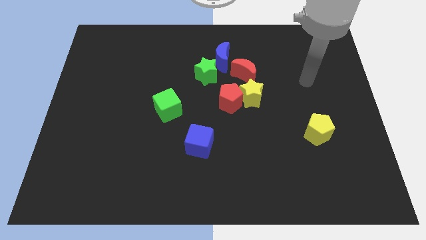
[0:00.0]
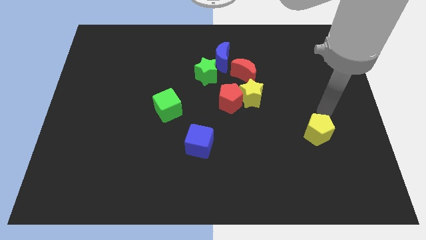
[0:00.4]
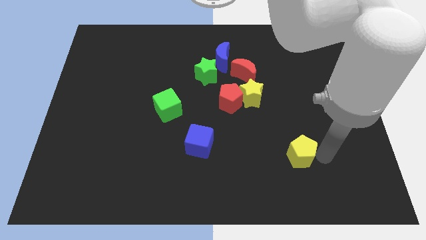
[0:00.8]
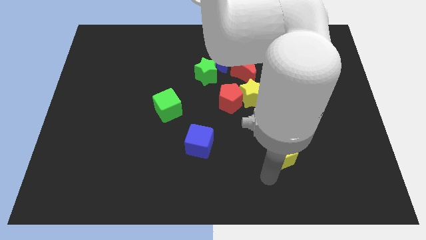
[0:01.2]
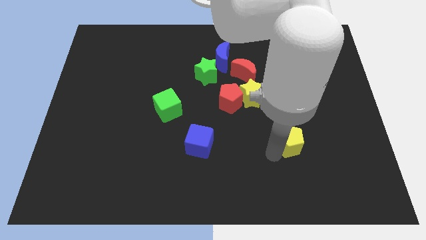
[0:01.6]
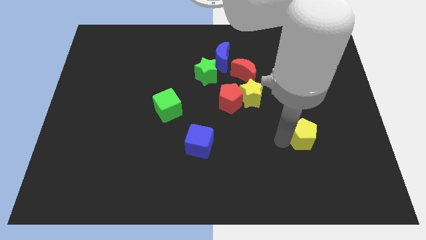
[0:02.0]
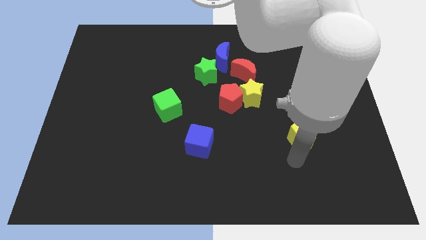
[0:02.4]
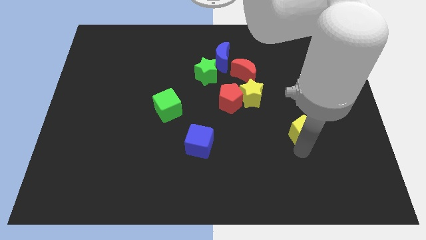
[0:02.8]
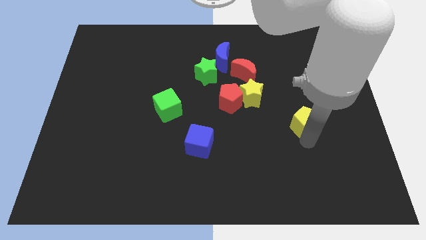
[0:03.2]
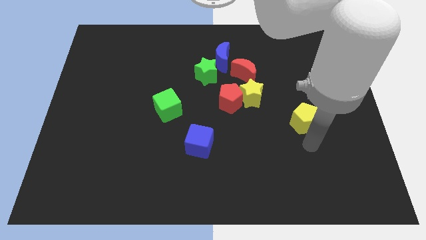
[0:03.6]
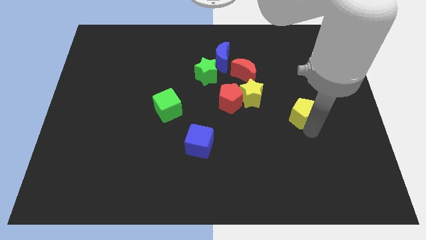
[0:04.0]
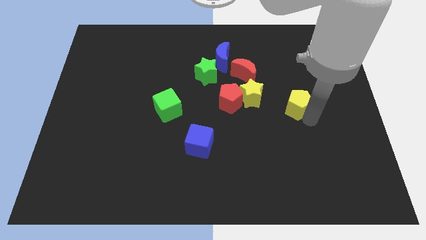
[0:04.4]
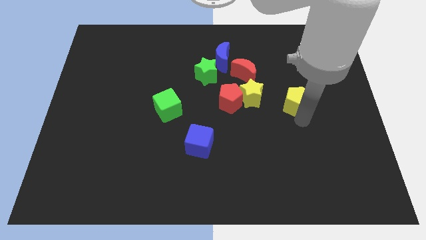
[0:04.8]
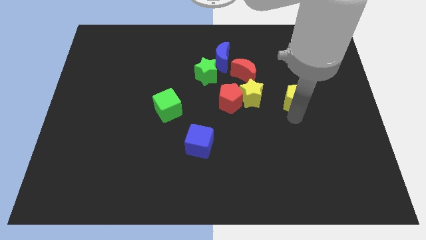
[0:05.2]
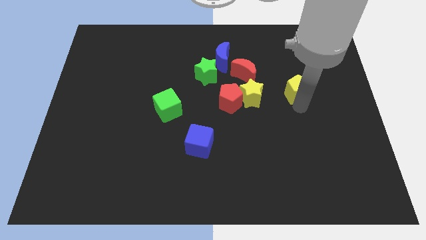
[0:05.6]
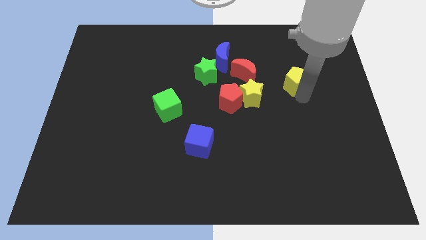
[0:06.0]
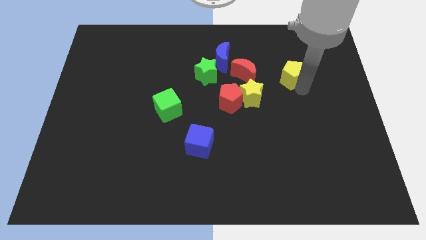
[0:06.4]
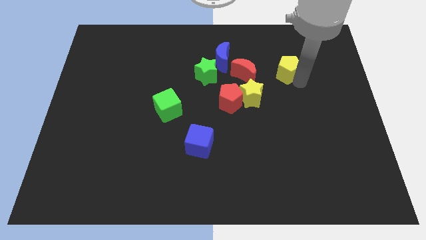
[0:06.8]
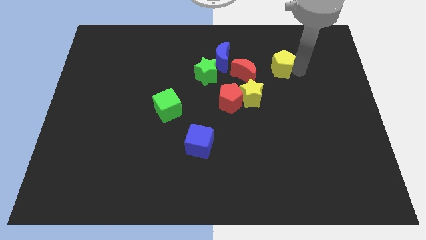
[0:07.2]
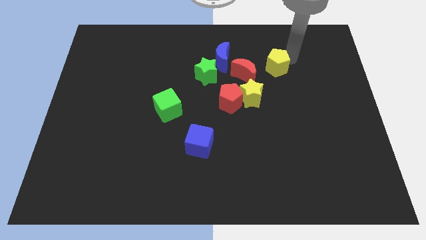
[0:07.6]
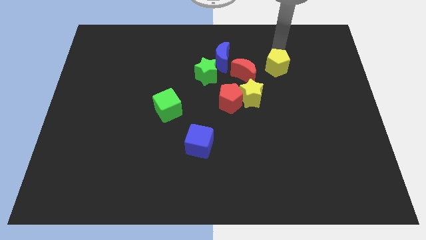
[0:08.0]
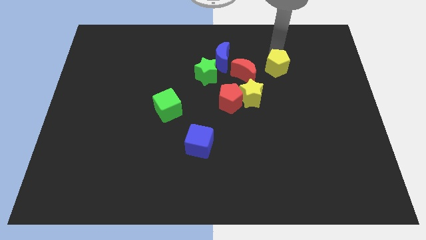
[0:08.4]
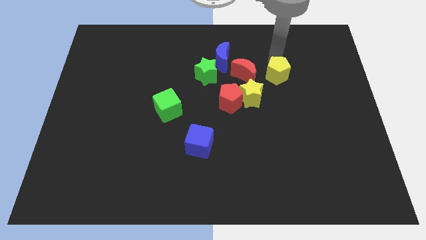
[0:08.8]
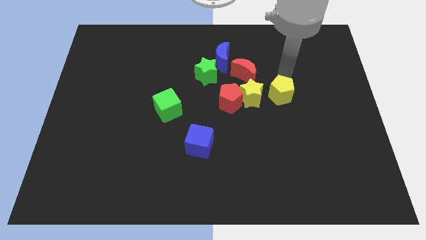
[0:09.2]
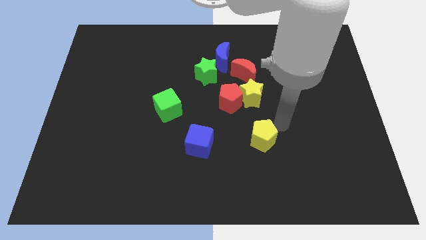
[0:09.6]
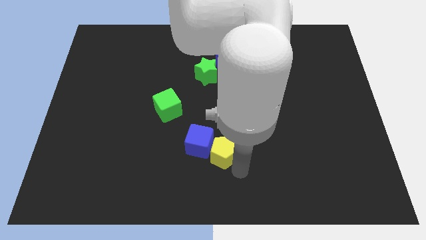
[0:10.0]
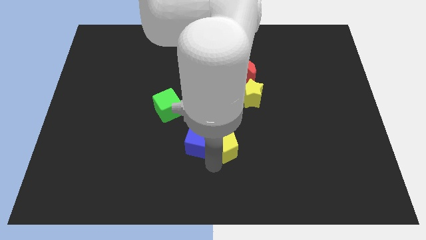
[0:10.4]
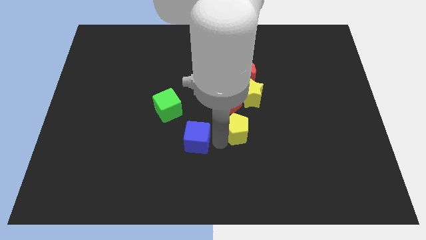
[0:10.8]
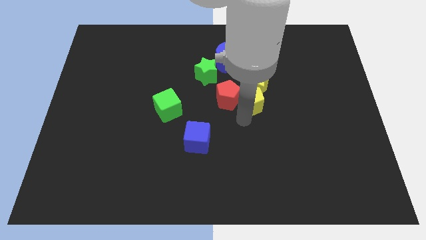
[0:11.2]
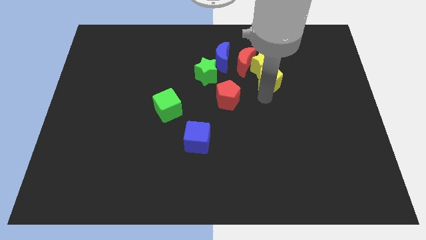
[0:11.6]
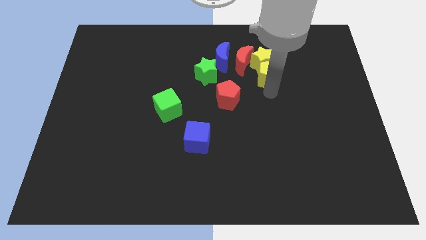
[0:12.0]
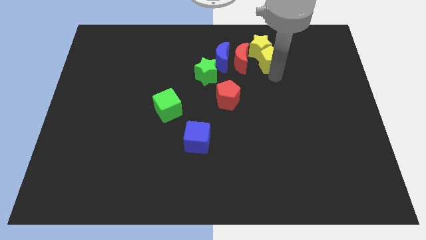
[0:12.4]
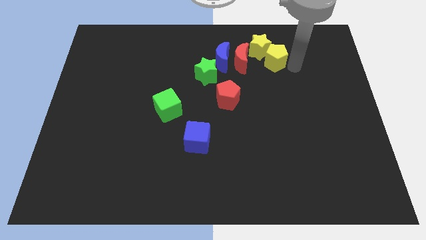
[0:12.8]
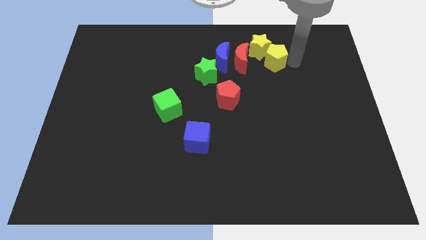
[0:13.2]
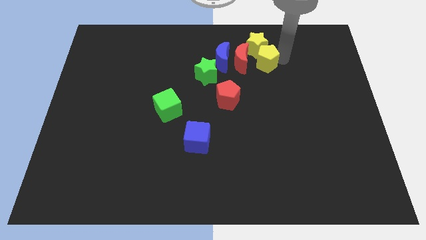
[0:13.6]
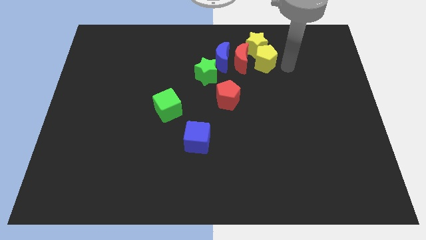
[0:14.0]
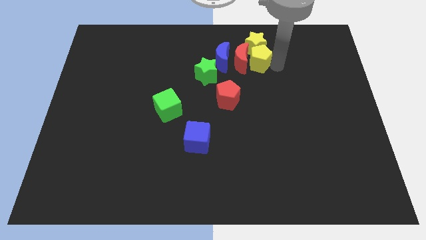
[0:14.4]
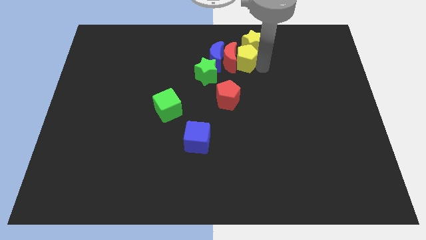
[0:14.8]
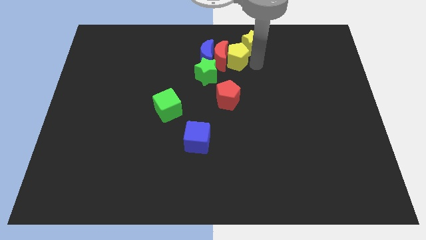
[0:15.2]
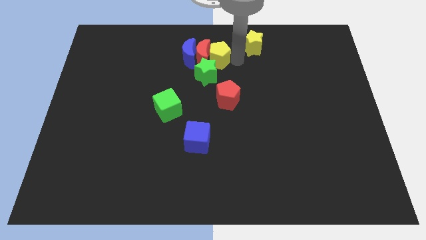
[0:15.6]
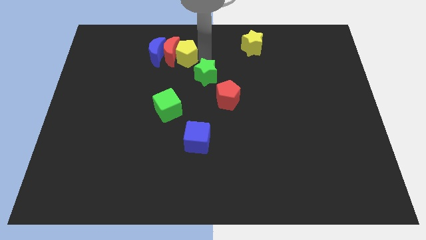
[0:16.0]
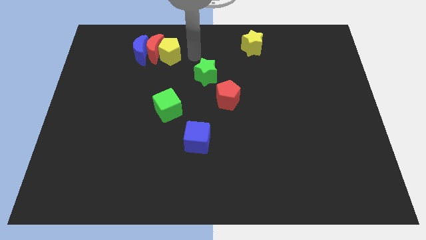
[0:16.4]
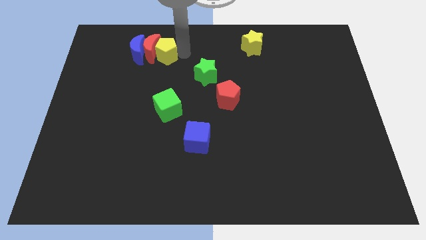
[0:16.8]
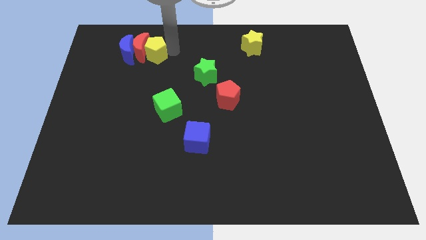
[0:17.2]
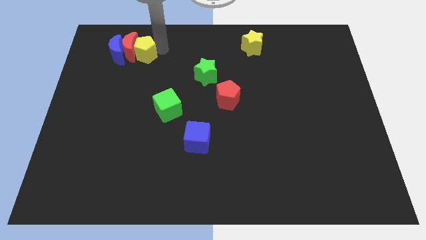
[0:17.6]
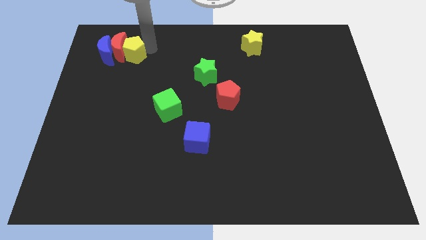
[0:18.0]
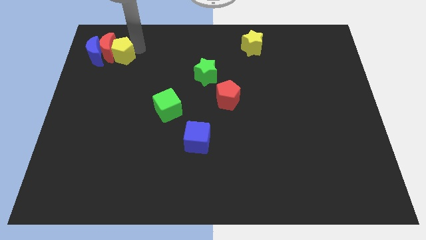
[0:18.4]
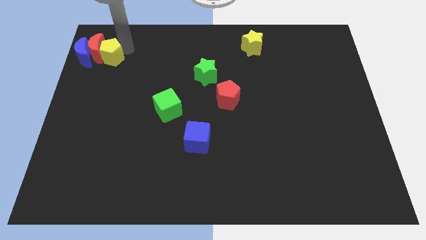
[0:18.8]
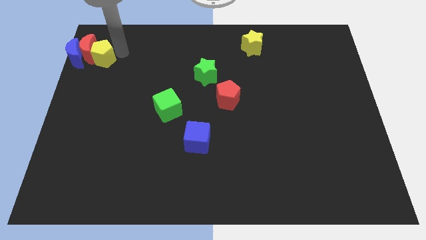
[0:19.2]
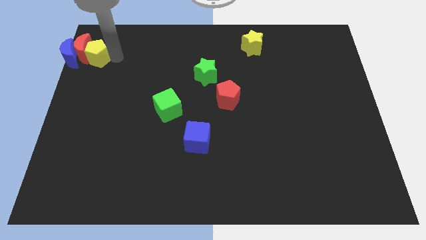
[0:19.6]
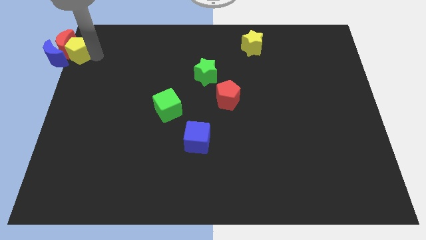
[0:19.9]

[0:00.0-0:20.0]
put the yellow pentagon close to the blue moon

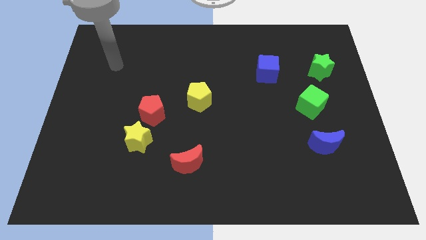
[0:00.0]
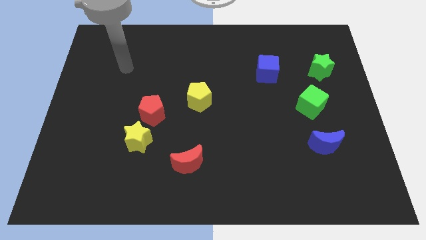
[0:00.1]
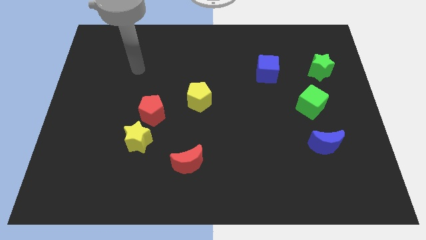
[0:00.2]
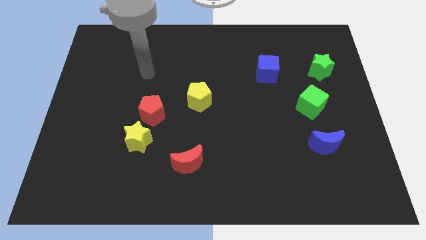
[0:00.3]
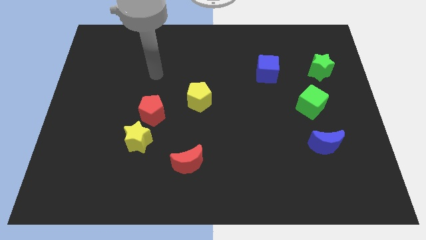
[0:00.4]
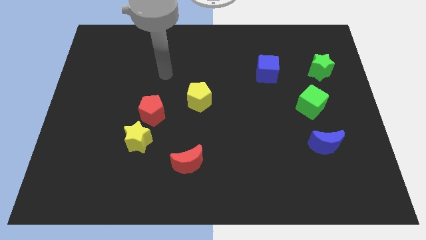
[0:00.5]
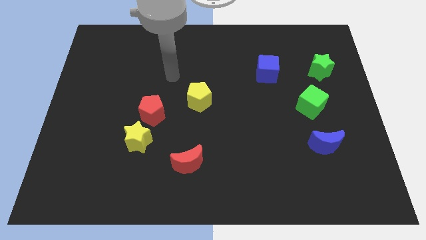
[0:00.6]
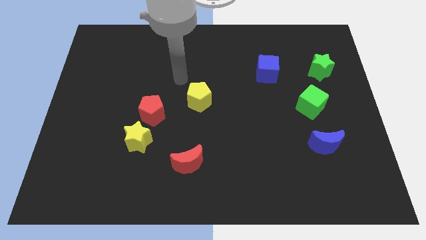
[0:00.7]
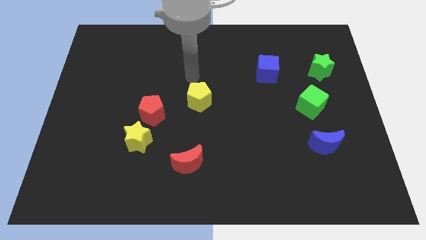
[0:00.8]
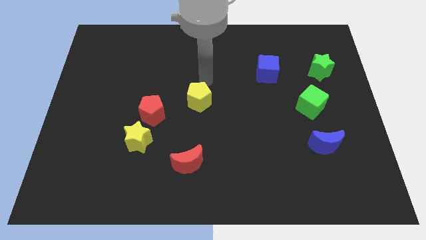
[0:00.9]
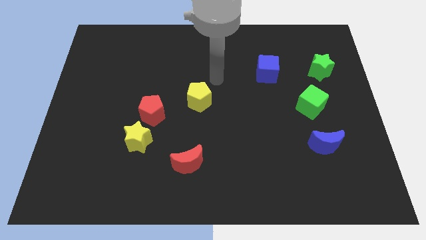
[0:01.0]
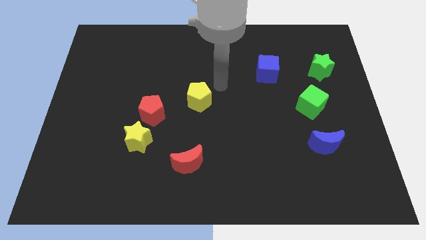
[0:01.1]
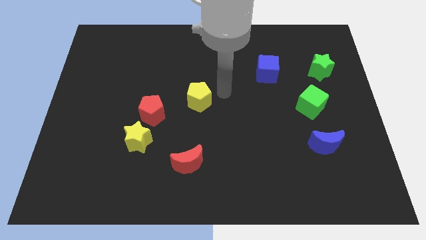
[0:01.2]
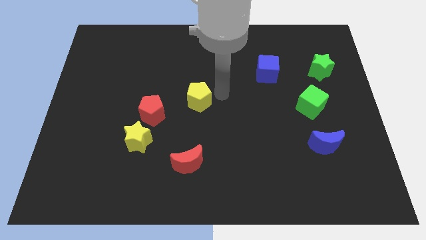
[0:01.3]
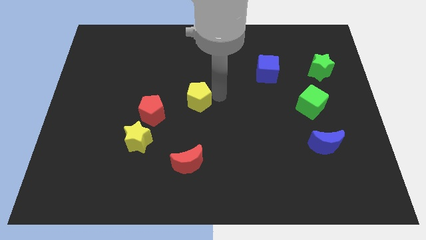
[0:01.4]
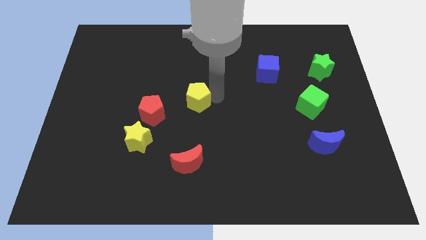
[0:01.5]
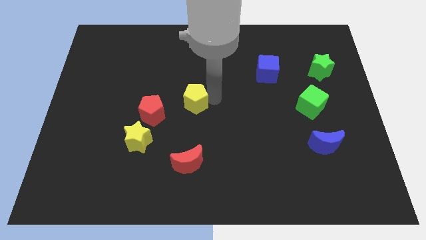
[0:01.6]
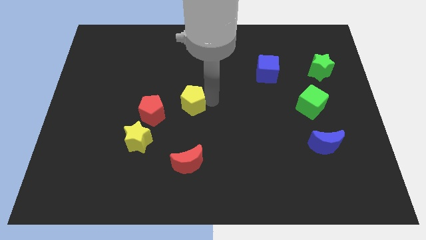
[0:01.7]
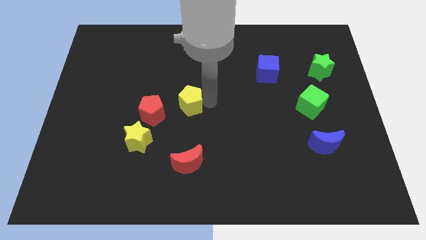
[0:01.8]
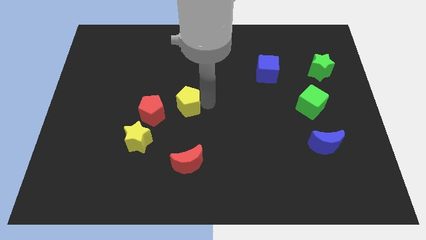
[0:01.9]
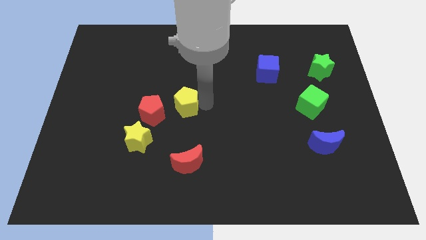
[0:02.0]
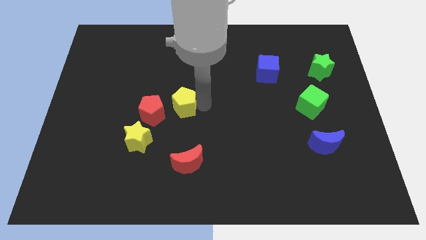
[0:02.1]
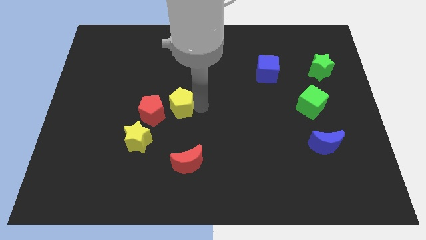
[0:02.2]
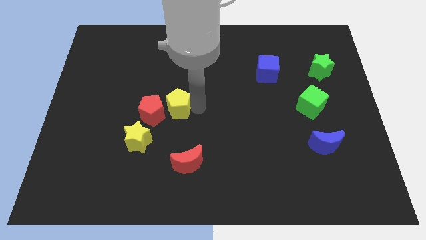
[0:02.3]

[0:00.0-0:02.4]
move the yellow pentagon next to the red pentagon
